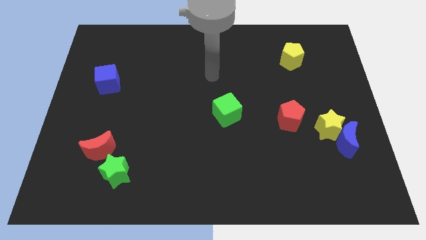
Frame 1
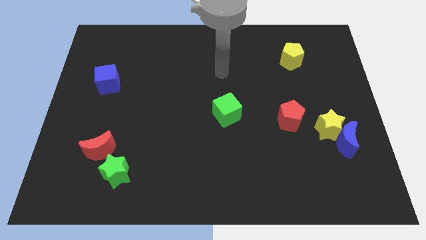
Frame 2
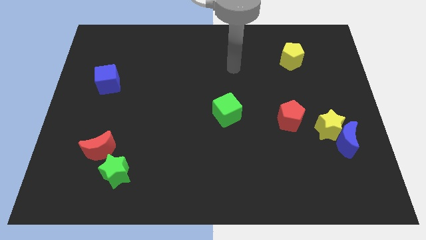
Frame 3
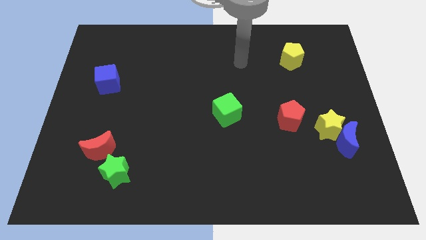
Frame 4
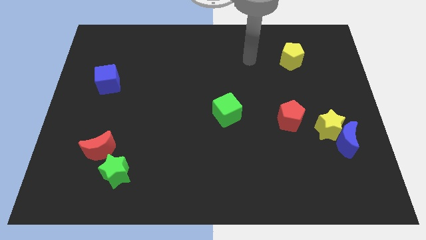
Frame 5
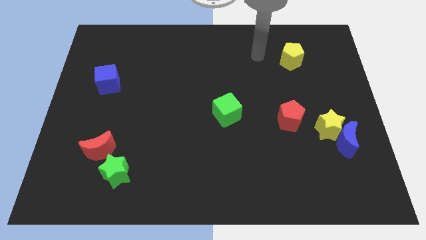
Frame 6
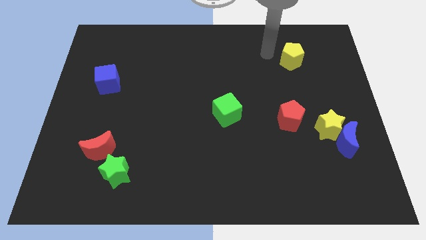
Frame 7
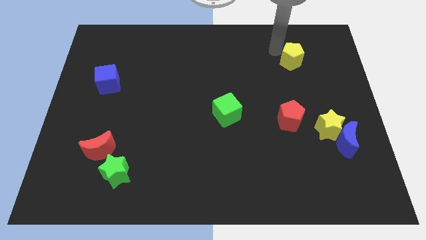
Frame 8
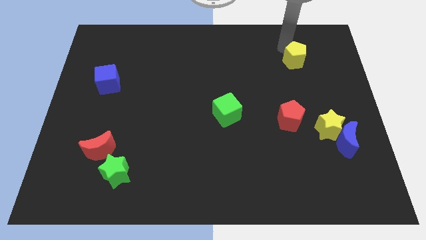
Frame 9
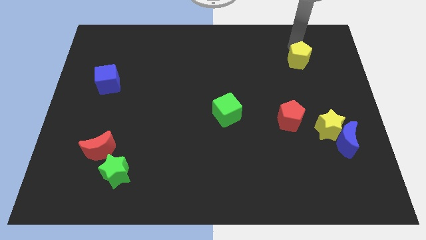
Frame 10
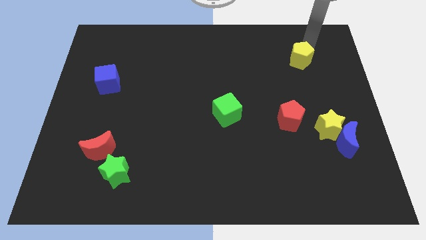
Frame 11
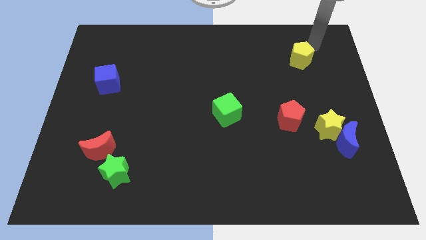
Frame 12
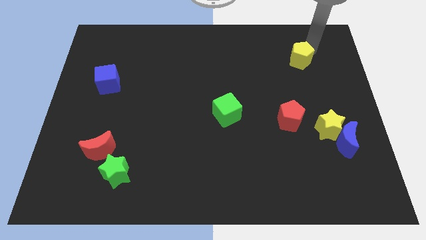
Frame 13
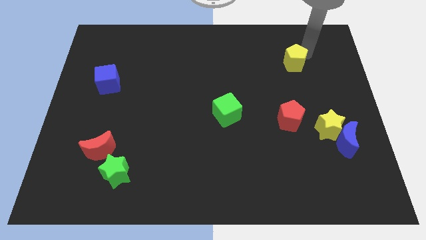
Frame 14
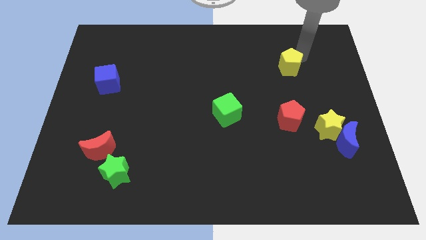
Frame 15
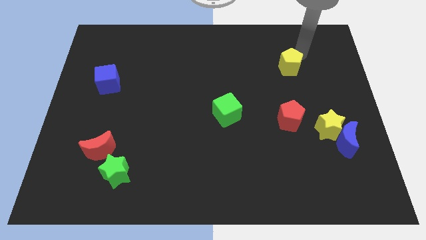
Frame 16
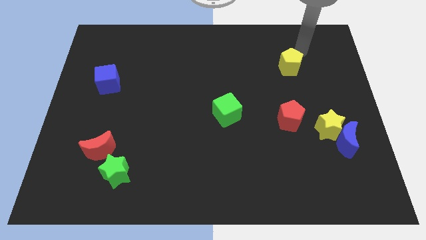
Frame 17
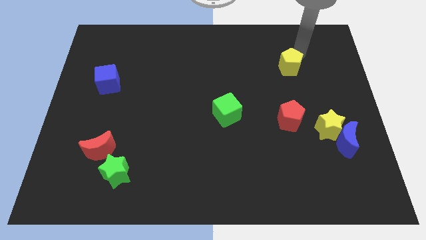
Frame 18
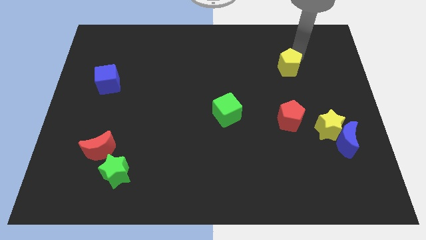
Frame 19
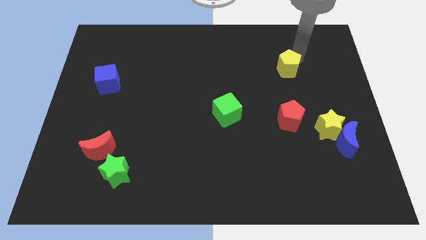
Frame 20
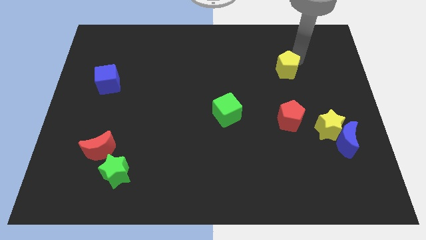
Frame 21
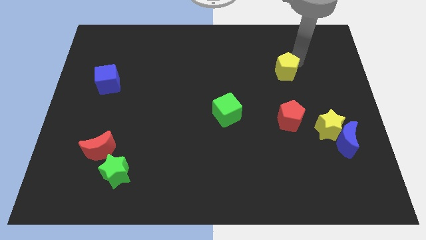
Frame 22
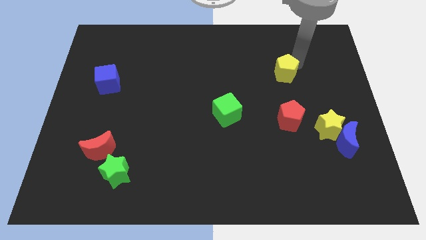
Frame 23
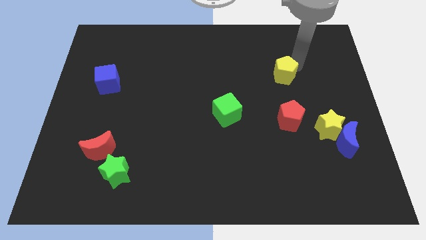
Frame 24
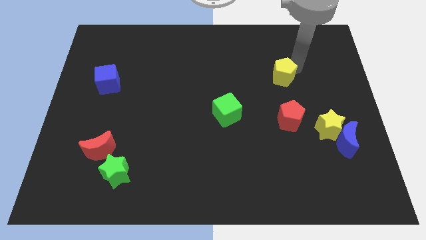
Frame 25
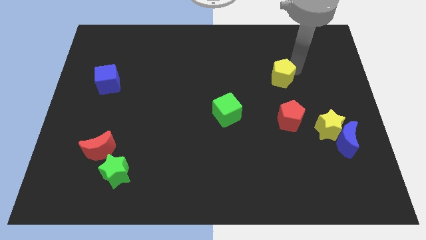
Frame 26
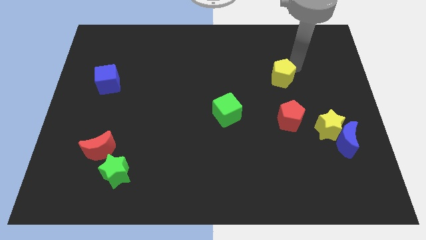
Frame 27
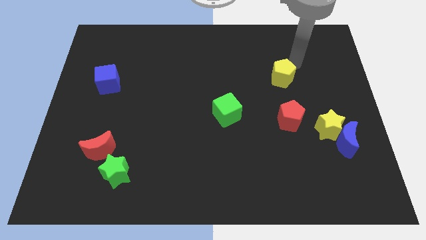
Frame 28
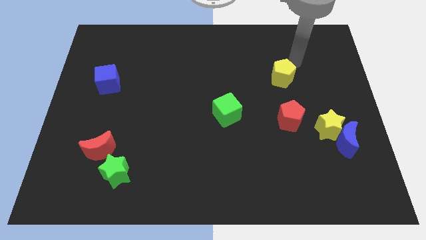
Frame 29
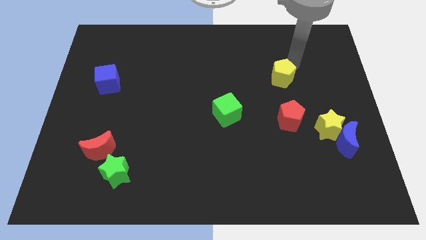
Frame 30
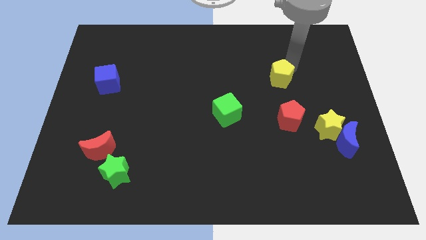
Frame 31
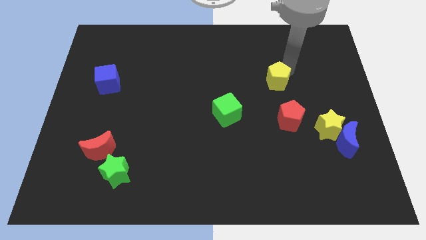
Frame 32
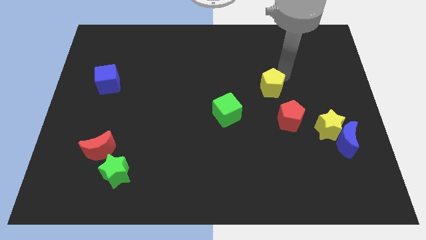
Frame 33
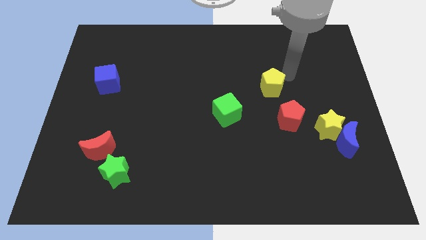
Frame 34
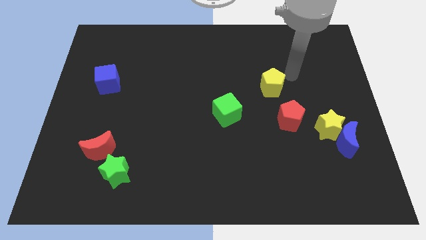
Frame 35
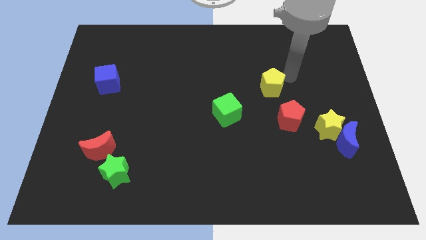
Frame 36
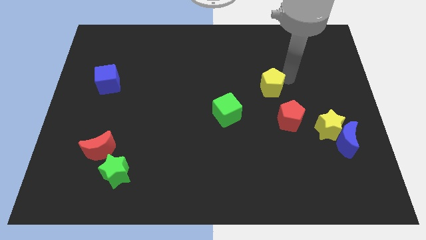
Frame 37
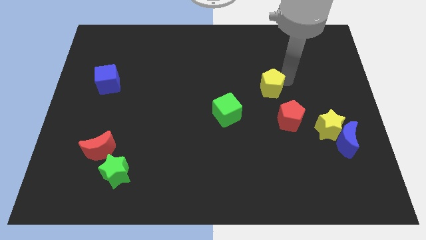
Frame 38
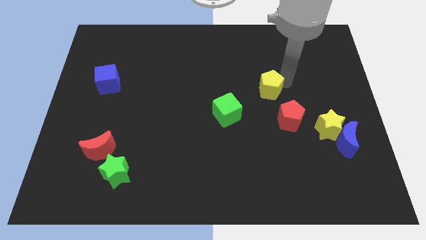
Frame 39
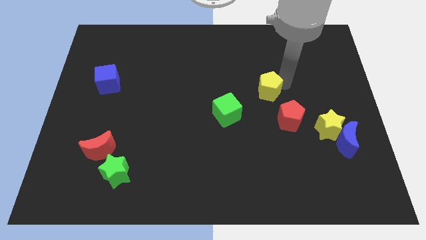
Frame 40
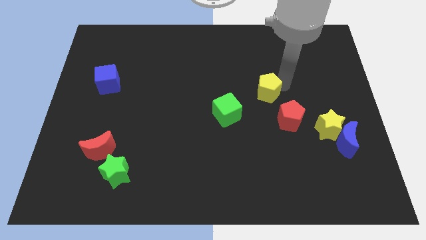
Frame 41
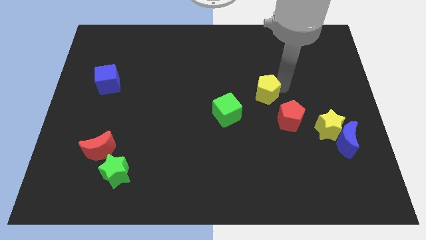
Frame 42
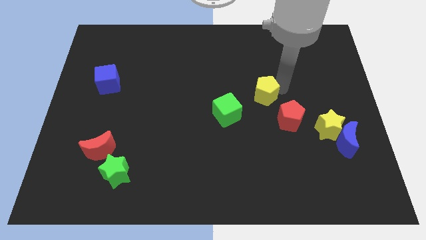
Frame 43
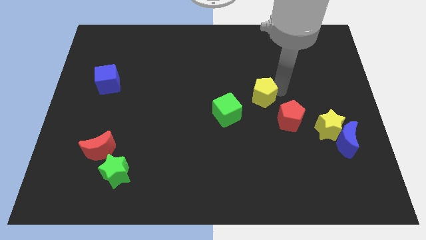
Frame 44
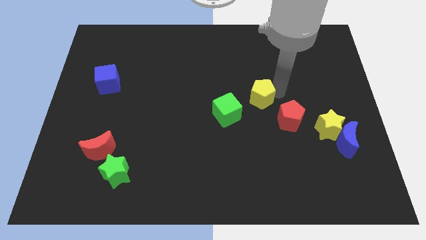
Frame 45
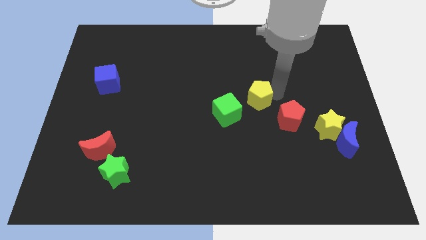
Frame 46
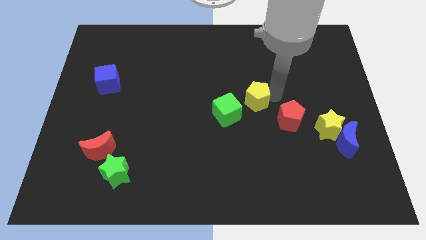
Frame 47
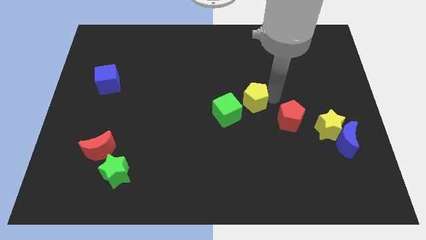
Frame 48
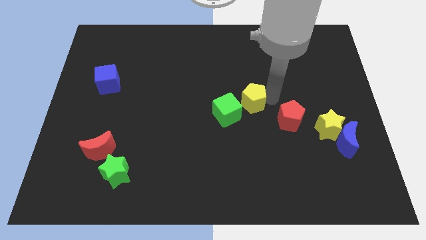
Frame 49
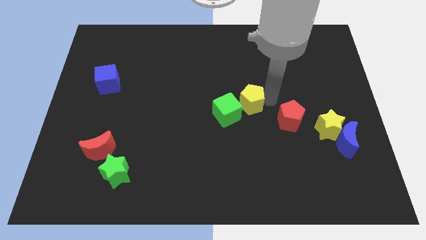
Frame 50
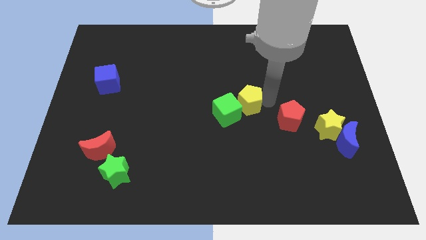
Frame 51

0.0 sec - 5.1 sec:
put the yellow pentagon towards the green cube

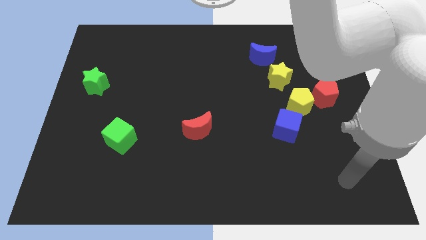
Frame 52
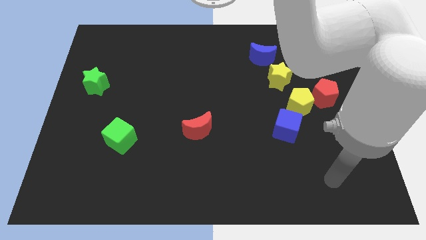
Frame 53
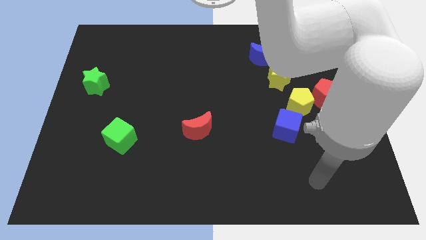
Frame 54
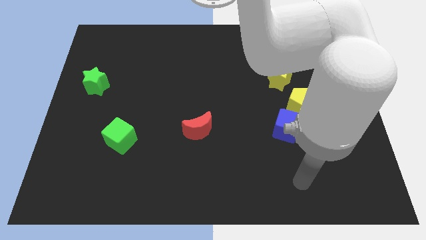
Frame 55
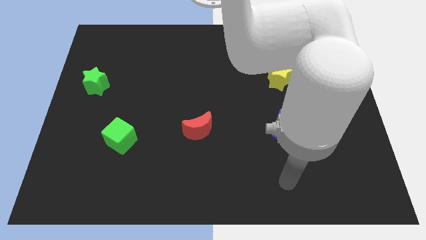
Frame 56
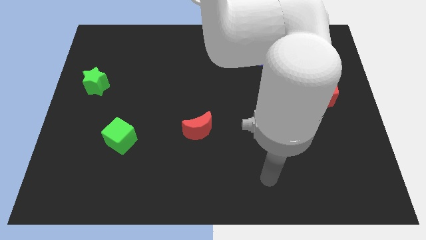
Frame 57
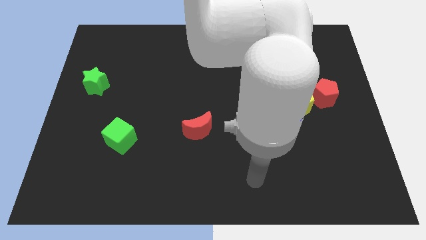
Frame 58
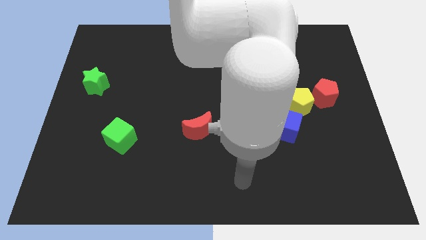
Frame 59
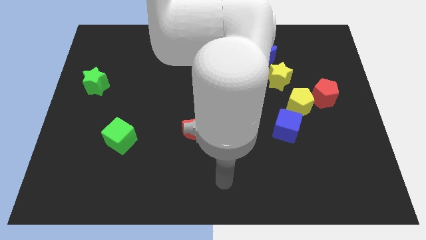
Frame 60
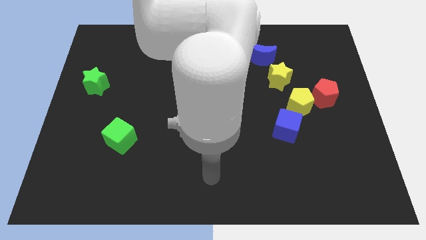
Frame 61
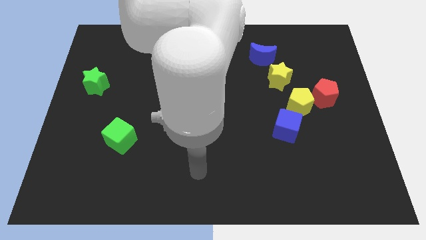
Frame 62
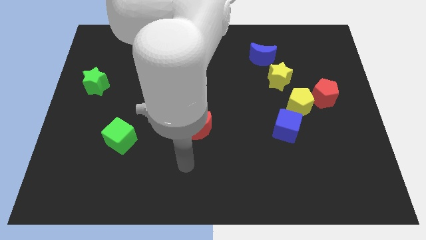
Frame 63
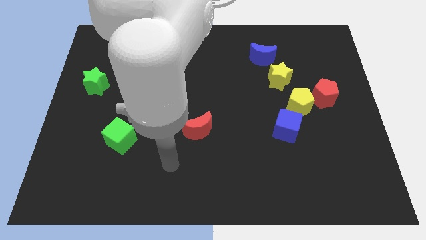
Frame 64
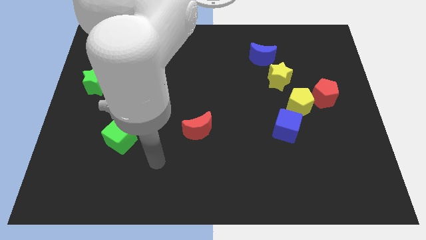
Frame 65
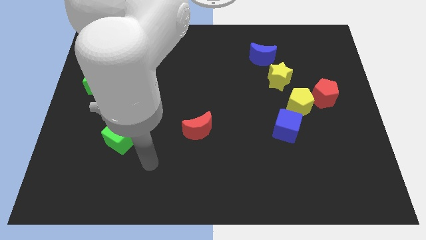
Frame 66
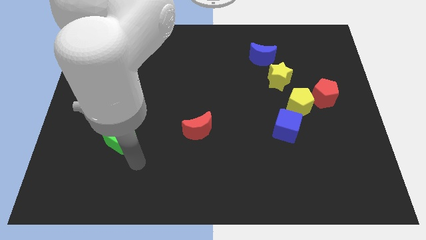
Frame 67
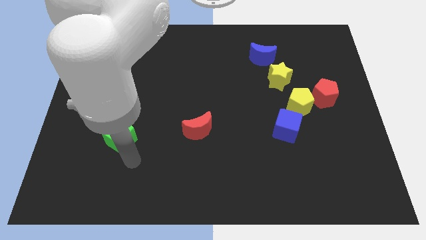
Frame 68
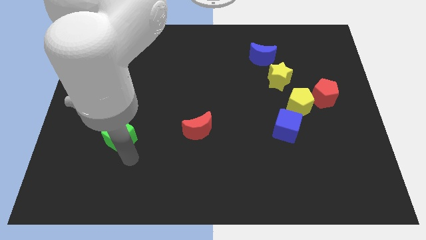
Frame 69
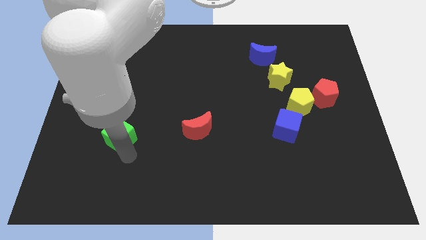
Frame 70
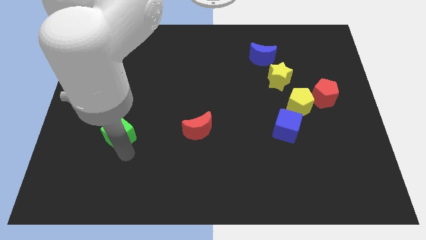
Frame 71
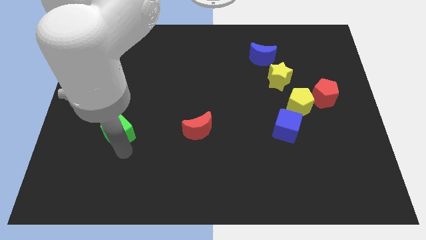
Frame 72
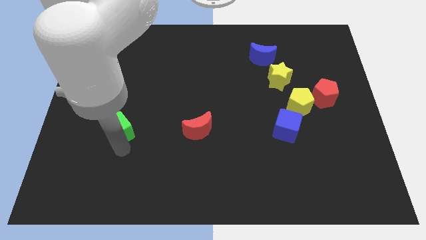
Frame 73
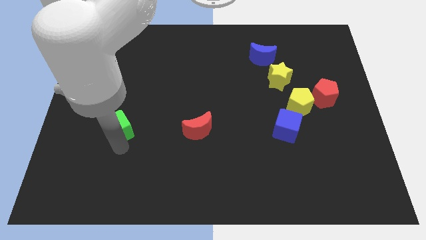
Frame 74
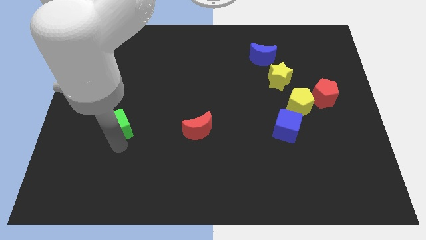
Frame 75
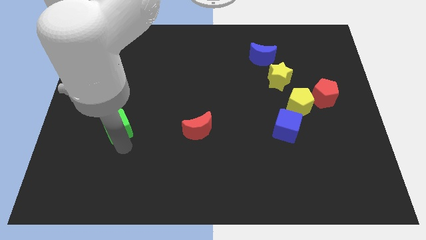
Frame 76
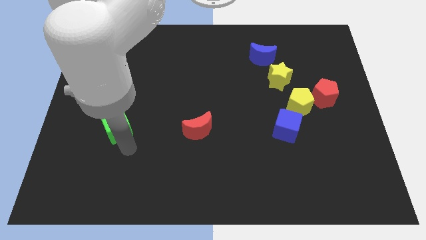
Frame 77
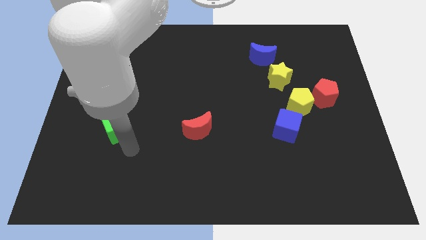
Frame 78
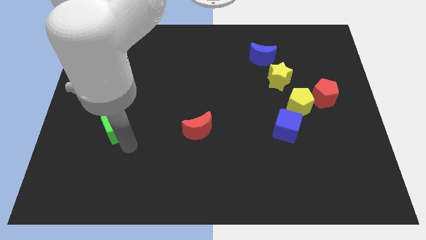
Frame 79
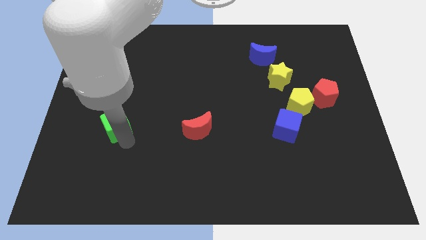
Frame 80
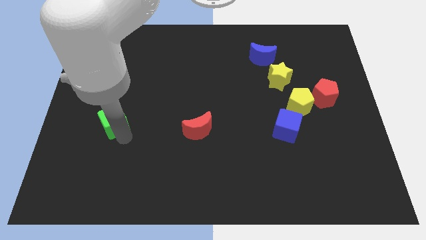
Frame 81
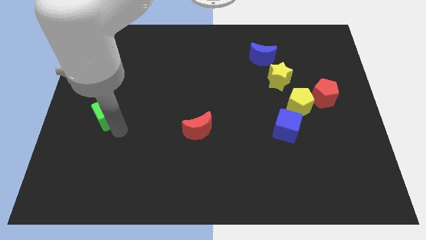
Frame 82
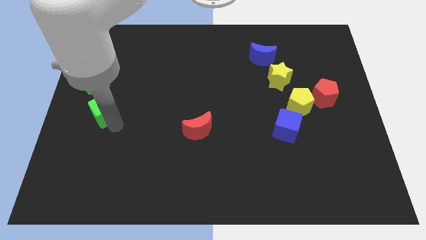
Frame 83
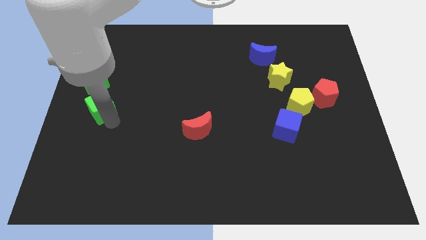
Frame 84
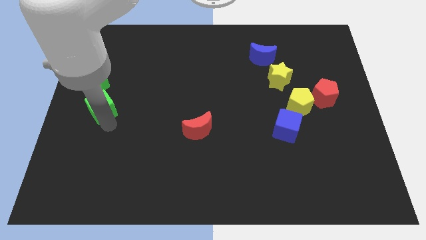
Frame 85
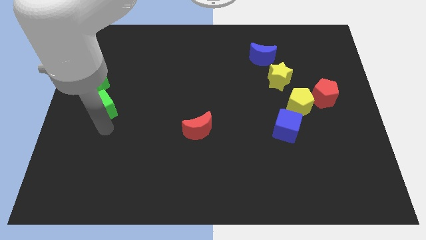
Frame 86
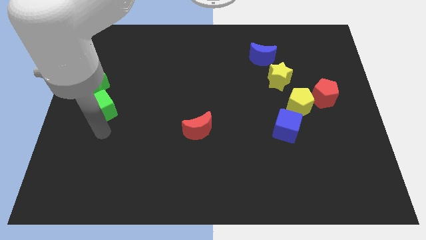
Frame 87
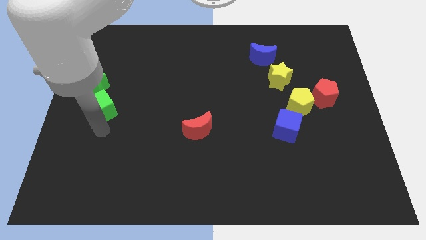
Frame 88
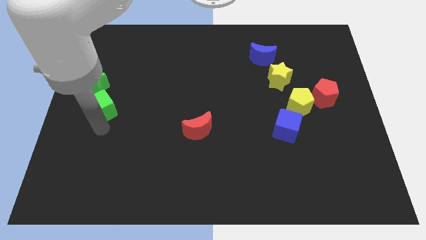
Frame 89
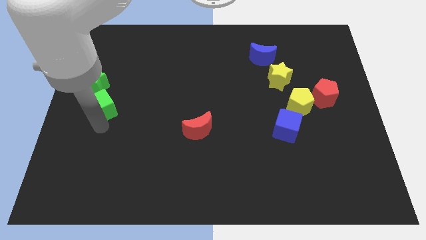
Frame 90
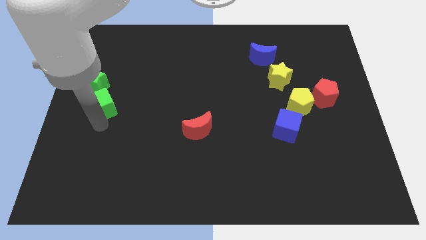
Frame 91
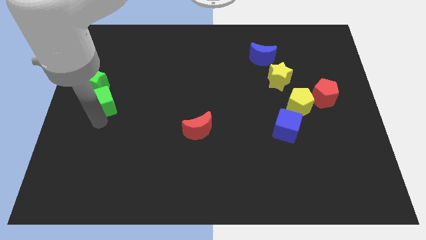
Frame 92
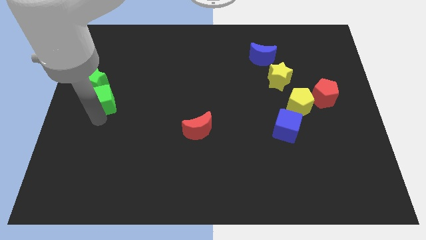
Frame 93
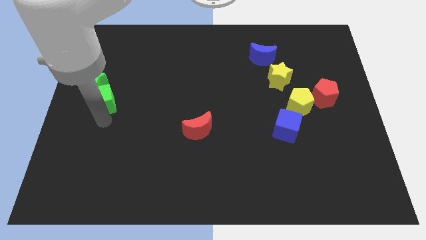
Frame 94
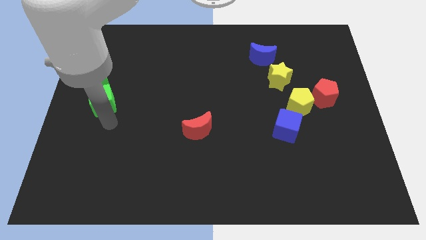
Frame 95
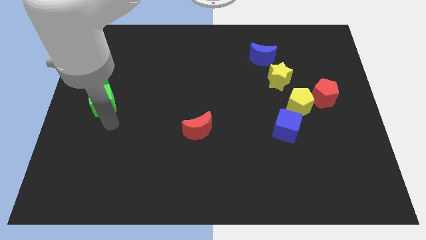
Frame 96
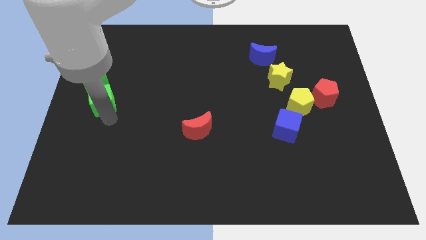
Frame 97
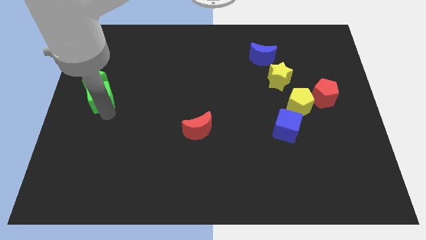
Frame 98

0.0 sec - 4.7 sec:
move the green cube close to the green star
